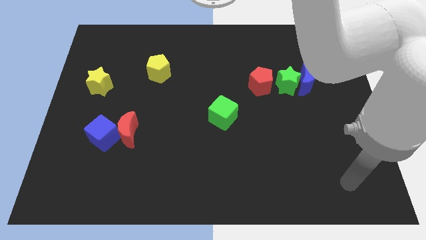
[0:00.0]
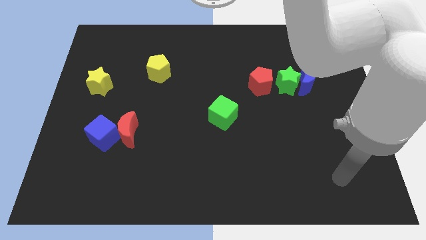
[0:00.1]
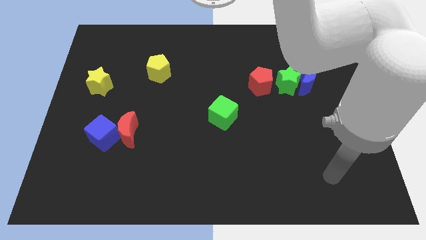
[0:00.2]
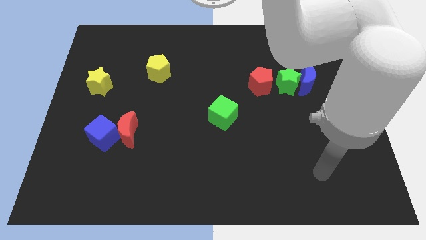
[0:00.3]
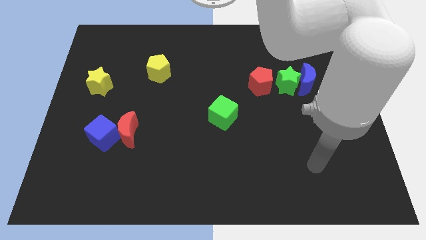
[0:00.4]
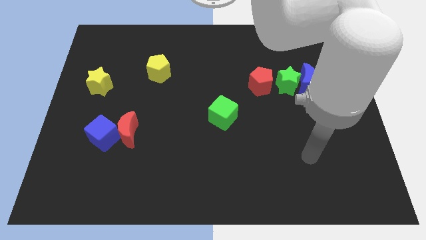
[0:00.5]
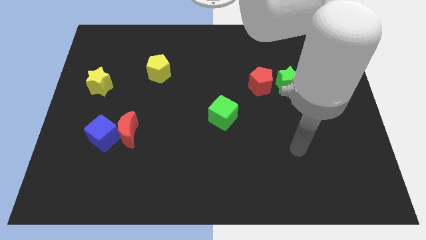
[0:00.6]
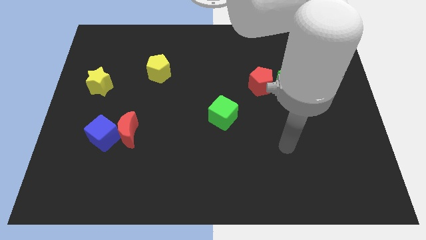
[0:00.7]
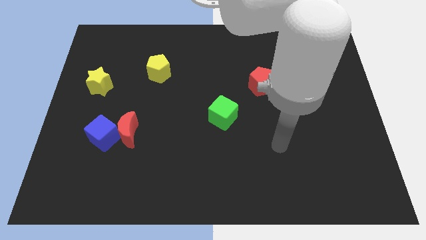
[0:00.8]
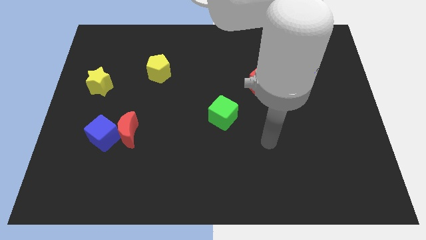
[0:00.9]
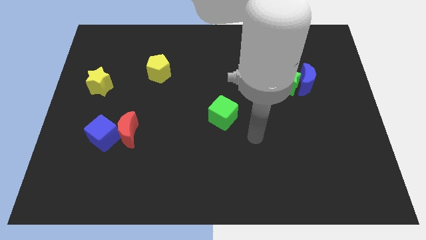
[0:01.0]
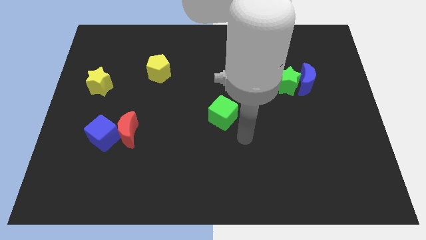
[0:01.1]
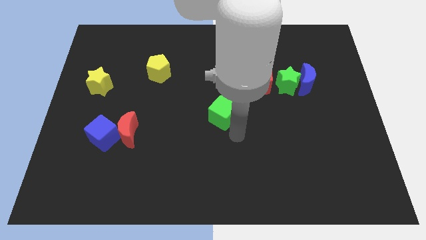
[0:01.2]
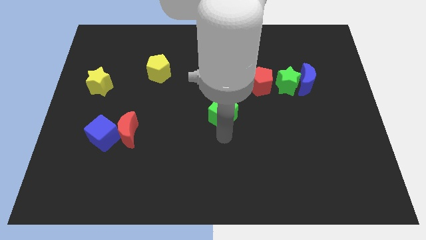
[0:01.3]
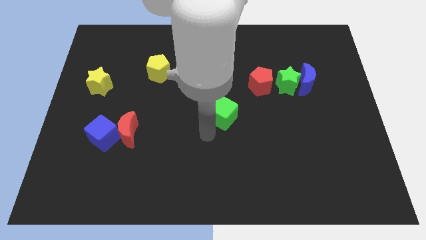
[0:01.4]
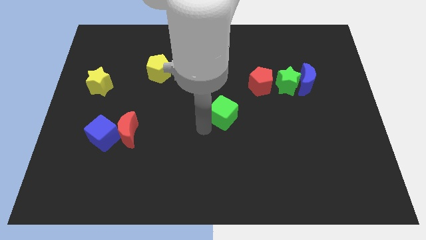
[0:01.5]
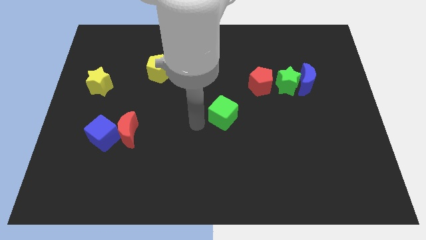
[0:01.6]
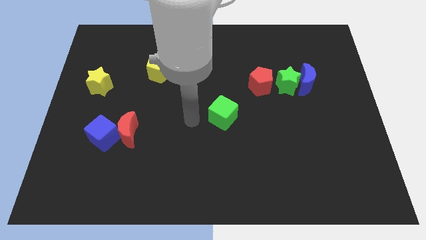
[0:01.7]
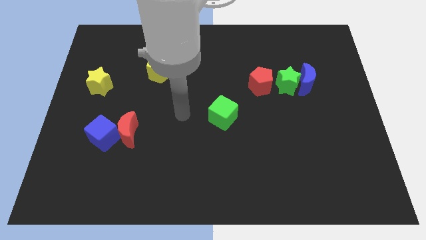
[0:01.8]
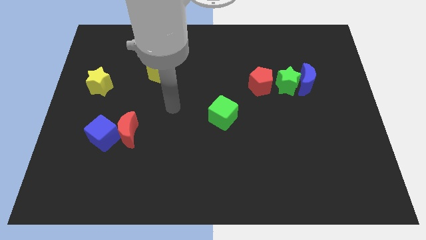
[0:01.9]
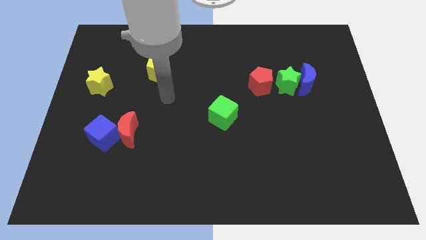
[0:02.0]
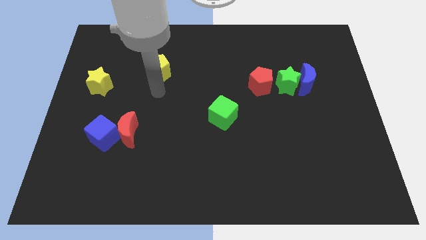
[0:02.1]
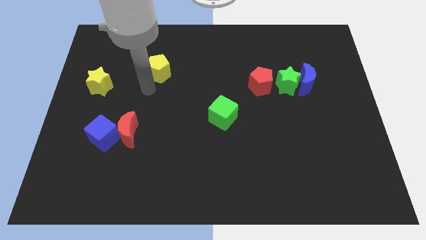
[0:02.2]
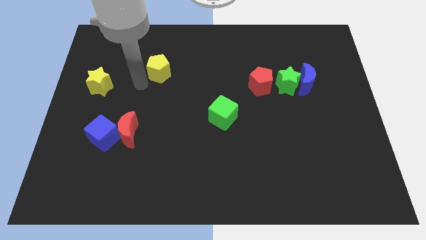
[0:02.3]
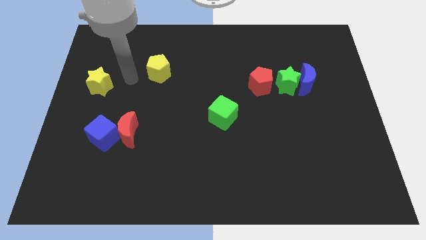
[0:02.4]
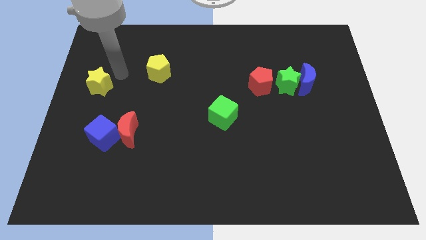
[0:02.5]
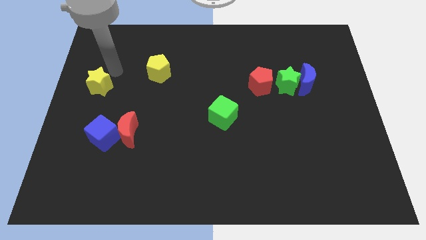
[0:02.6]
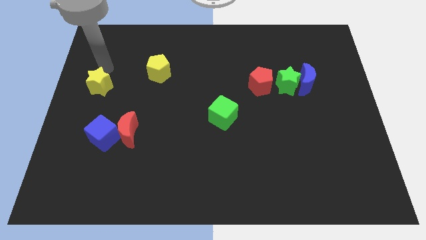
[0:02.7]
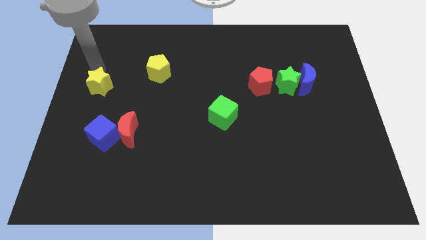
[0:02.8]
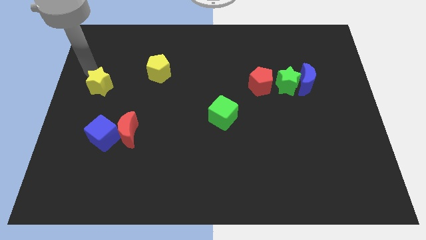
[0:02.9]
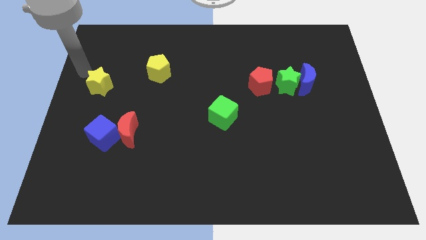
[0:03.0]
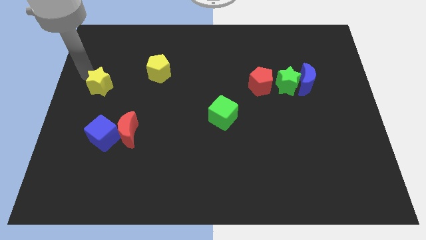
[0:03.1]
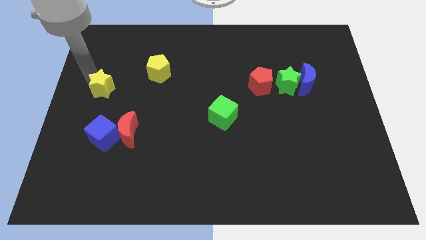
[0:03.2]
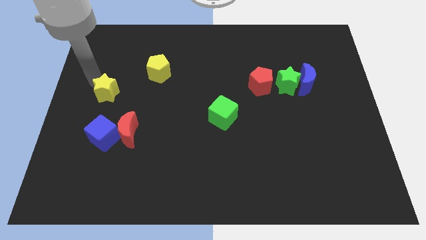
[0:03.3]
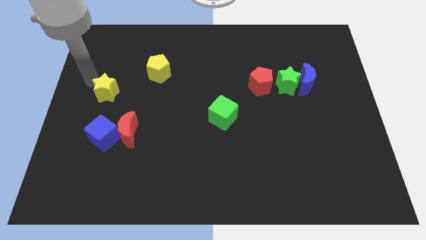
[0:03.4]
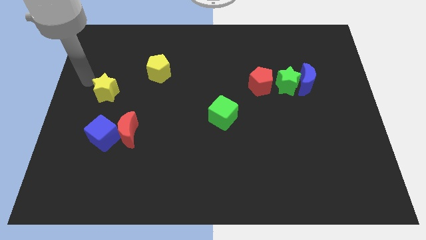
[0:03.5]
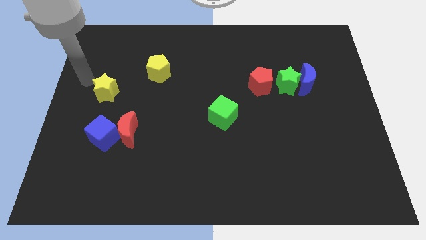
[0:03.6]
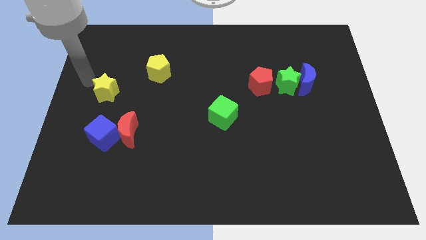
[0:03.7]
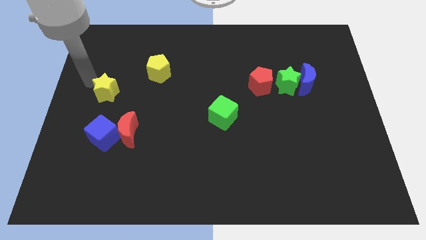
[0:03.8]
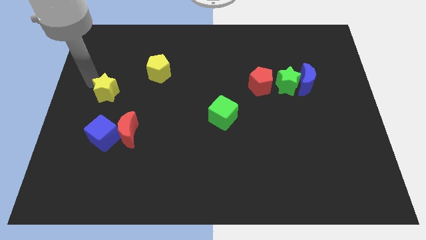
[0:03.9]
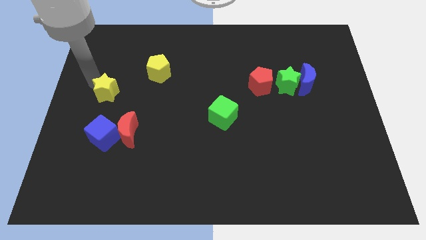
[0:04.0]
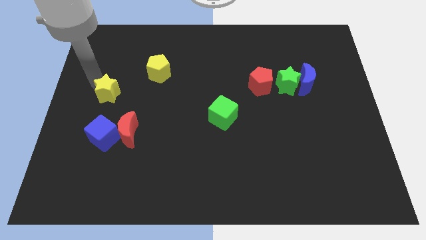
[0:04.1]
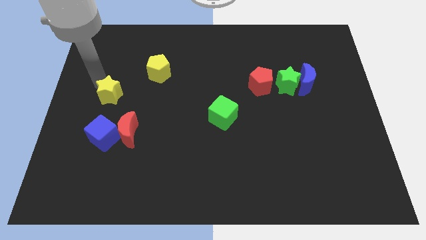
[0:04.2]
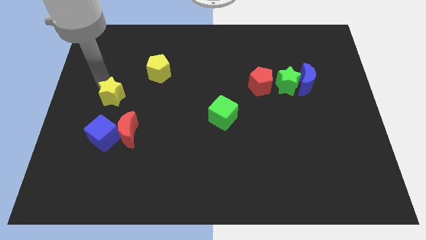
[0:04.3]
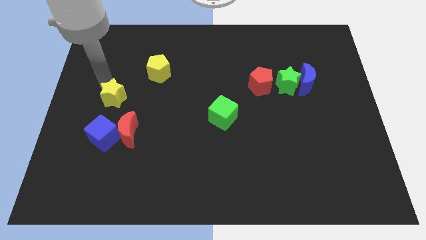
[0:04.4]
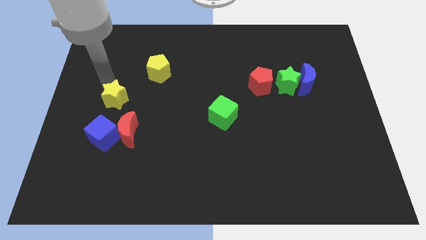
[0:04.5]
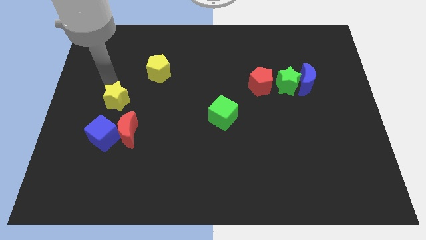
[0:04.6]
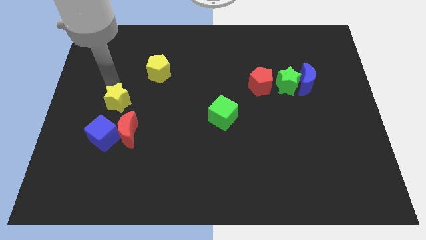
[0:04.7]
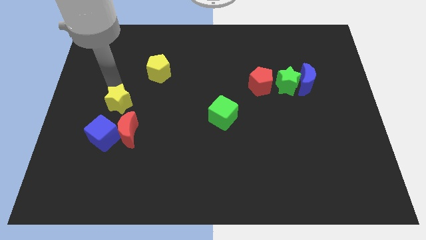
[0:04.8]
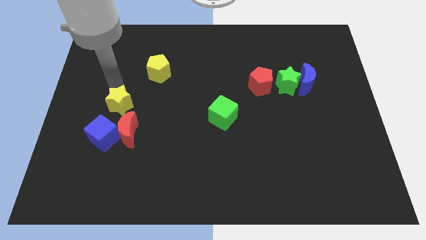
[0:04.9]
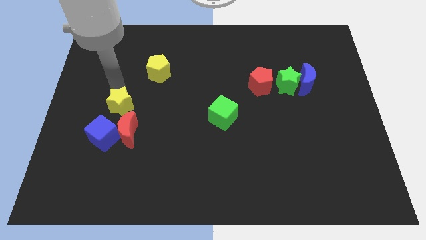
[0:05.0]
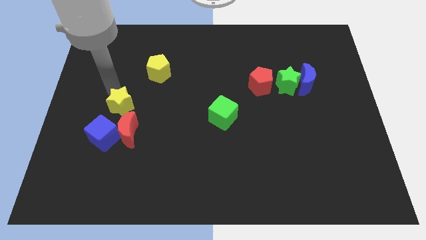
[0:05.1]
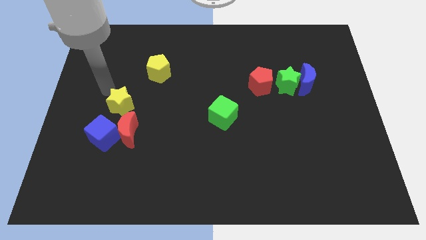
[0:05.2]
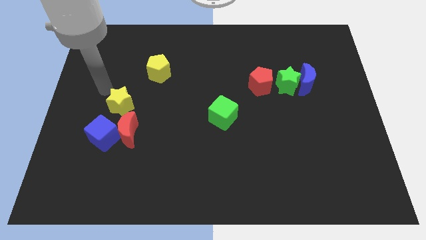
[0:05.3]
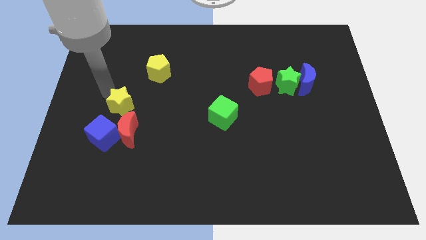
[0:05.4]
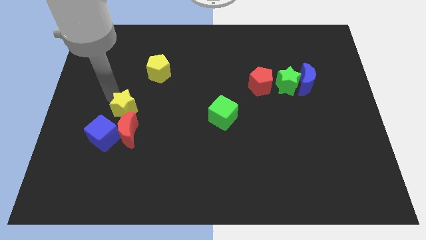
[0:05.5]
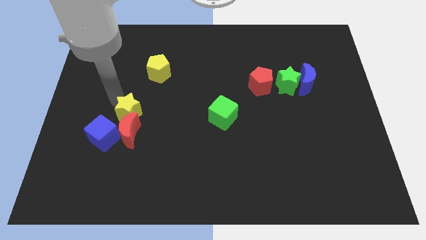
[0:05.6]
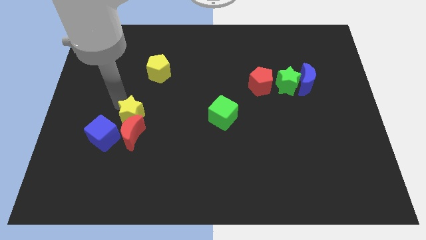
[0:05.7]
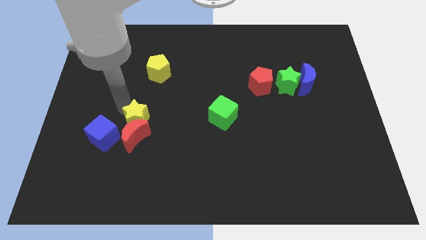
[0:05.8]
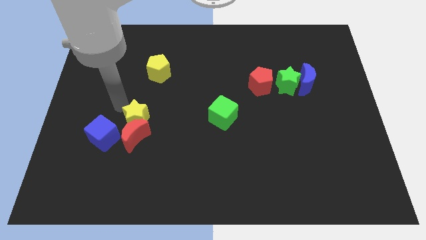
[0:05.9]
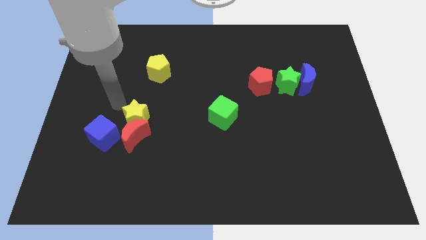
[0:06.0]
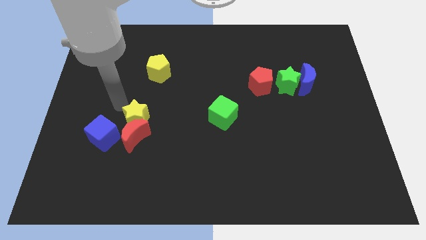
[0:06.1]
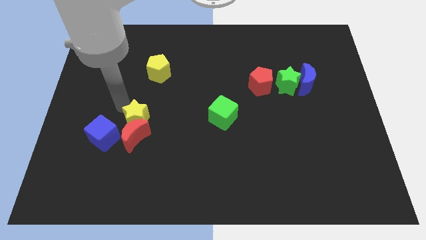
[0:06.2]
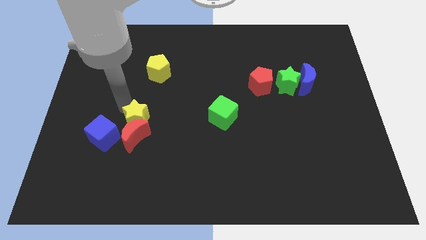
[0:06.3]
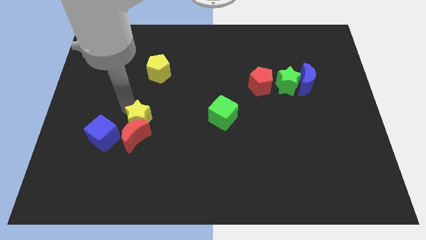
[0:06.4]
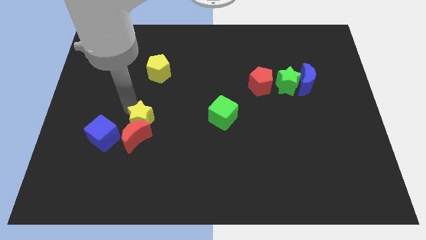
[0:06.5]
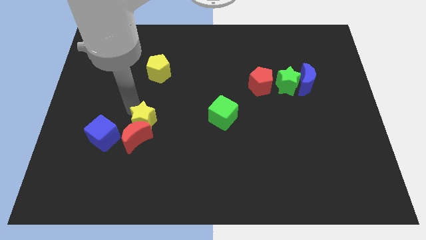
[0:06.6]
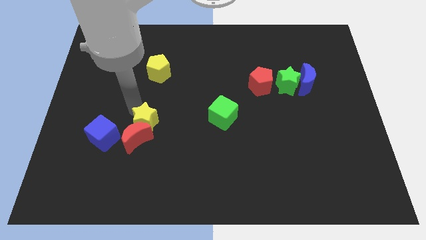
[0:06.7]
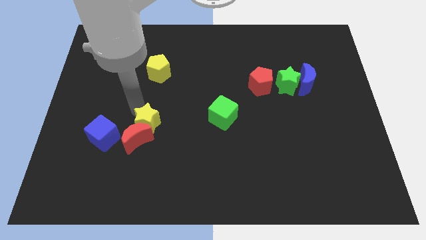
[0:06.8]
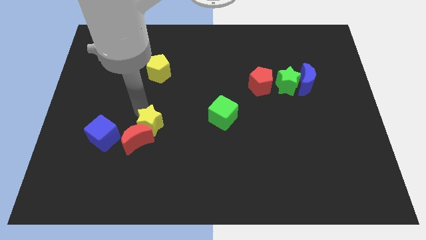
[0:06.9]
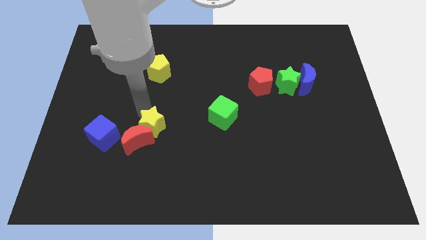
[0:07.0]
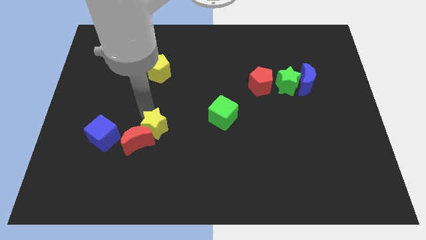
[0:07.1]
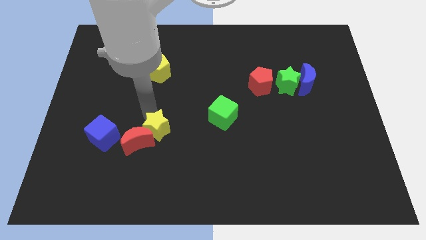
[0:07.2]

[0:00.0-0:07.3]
push the yellow star downwards and to the right

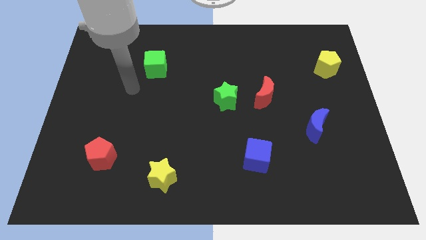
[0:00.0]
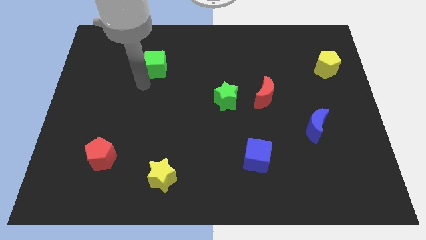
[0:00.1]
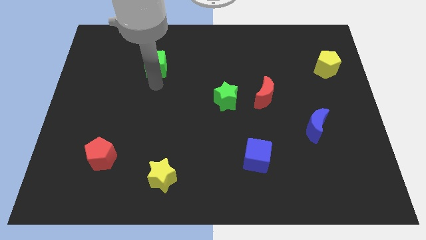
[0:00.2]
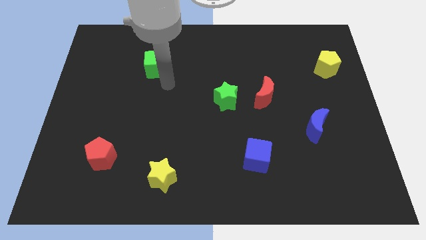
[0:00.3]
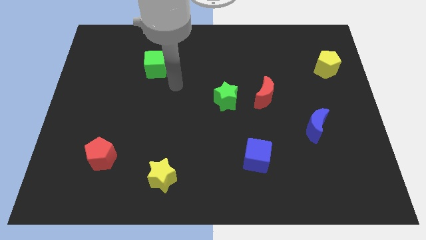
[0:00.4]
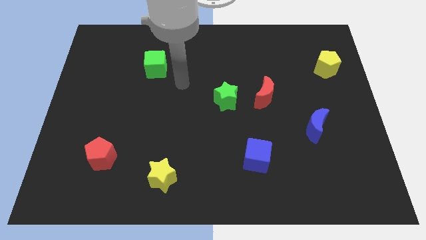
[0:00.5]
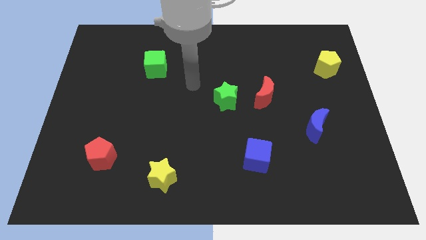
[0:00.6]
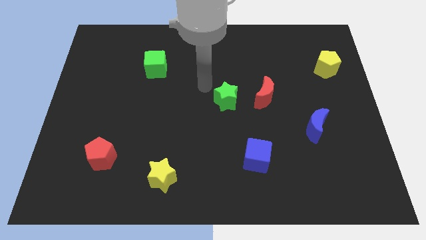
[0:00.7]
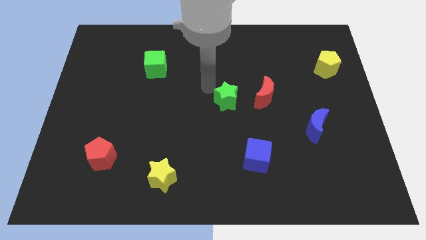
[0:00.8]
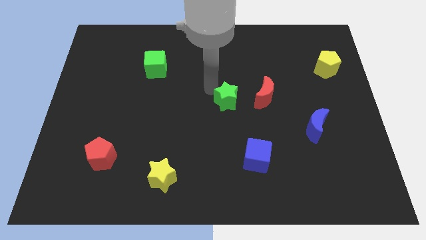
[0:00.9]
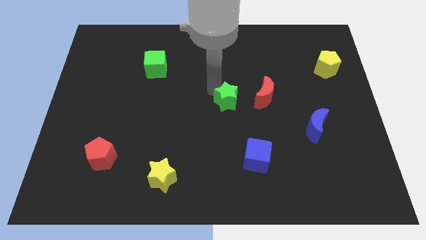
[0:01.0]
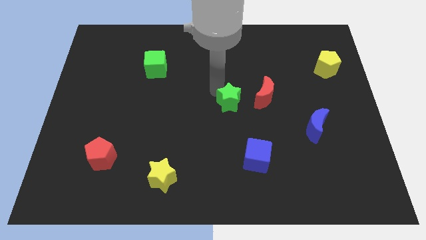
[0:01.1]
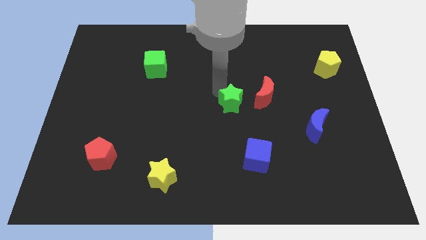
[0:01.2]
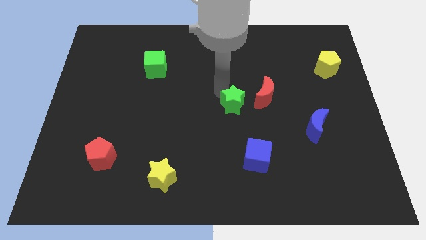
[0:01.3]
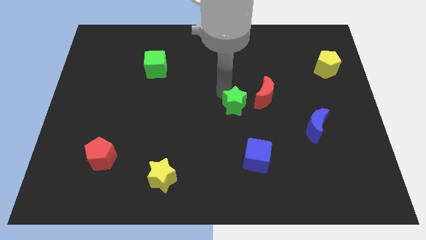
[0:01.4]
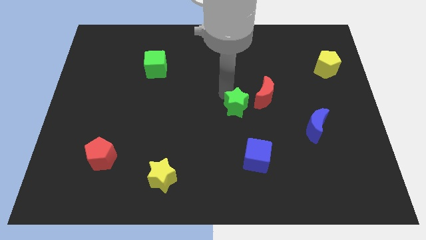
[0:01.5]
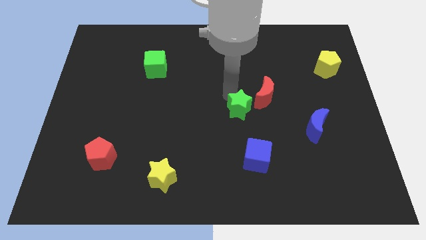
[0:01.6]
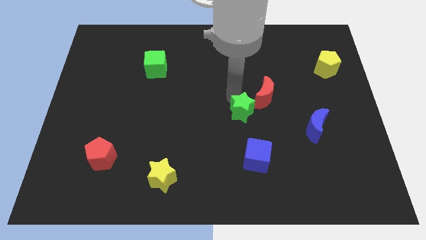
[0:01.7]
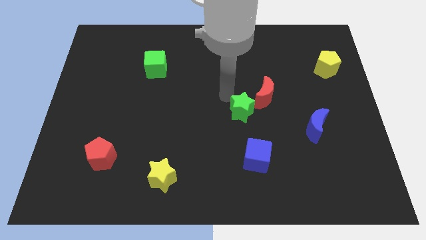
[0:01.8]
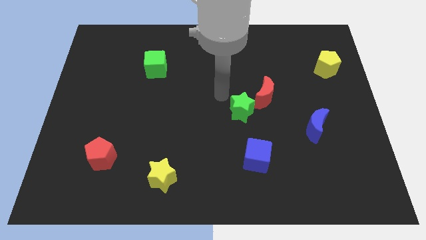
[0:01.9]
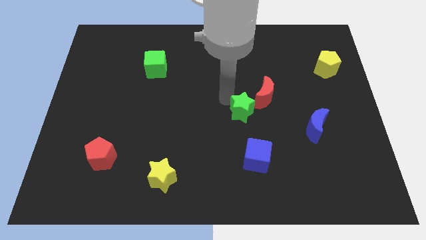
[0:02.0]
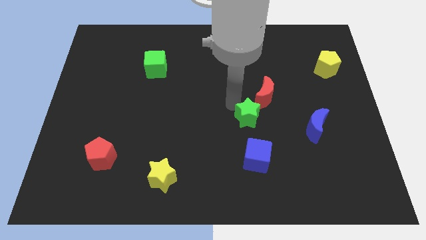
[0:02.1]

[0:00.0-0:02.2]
slide the green star slightly downwards and then to the right
